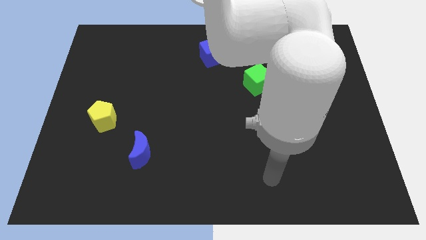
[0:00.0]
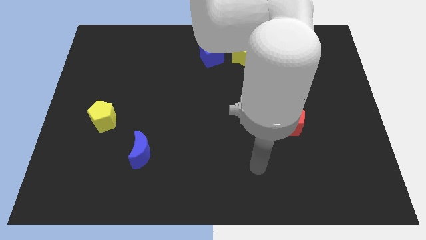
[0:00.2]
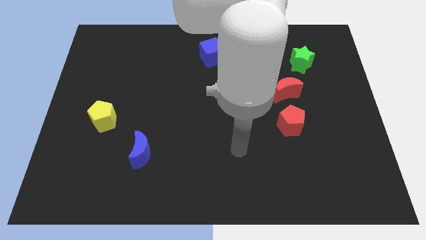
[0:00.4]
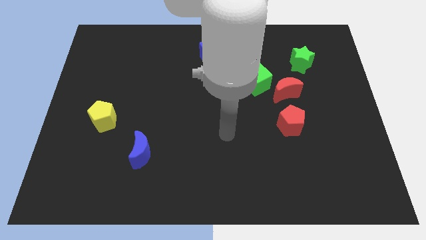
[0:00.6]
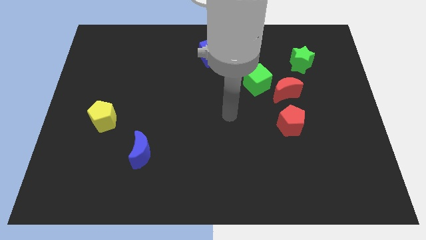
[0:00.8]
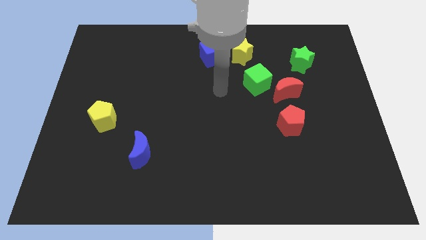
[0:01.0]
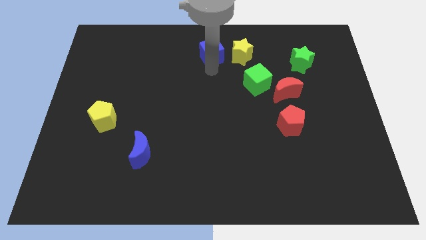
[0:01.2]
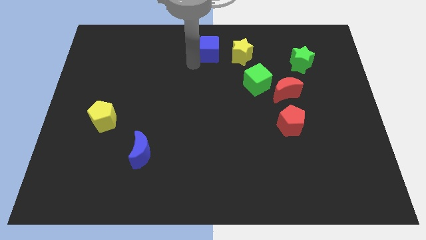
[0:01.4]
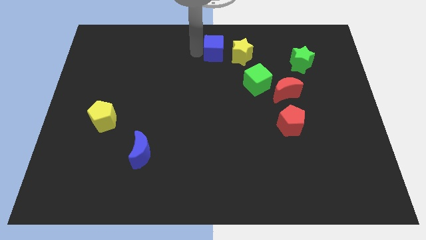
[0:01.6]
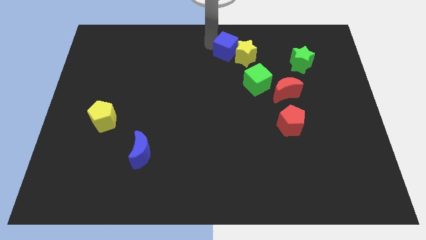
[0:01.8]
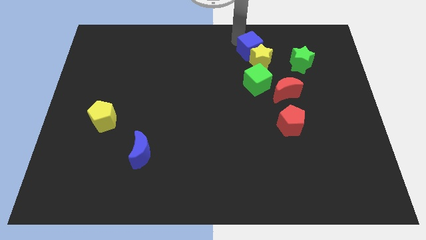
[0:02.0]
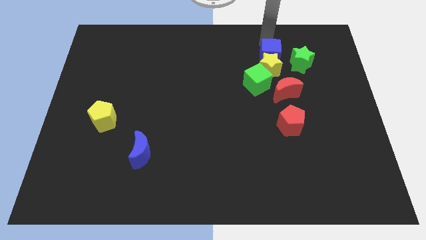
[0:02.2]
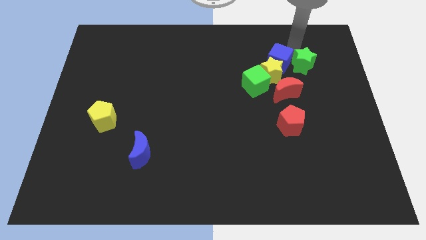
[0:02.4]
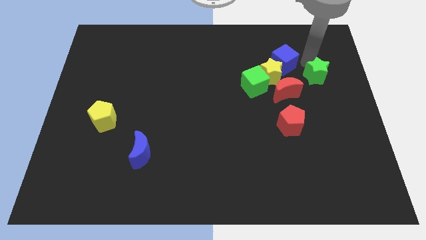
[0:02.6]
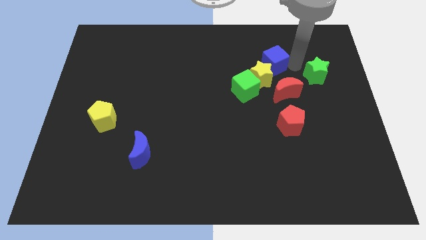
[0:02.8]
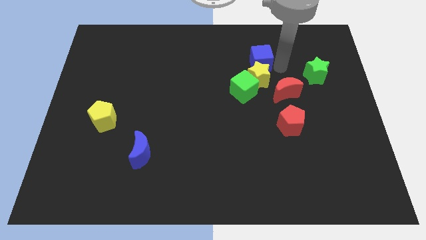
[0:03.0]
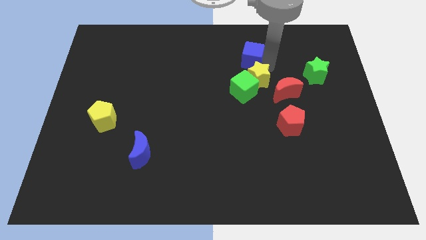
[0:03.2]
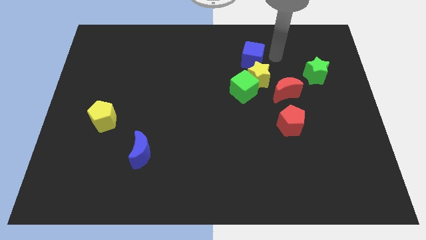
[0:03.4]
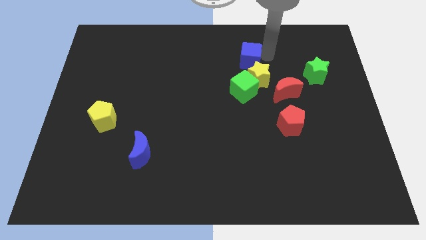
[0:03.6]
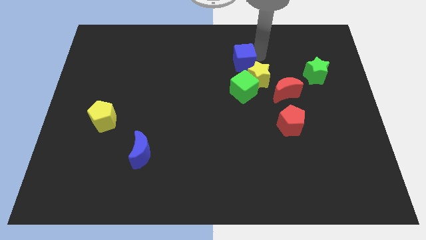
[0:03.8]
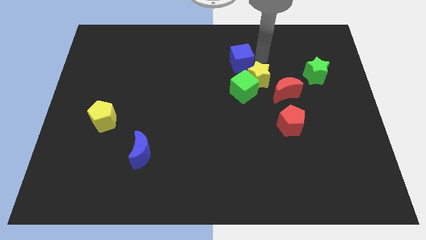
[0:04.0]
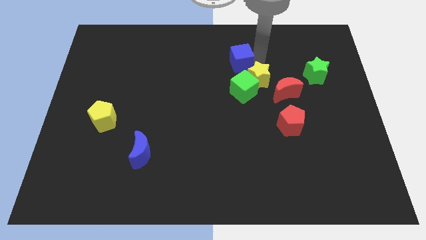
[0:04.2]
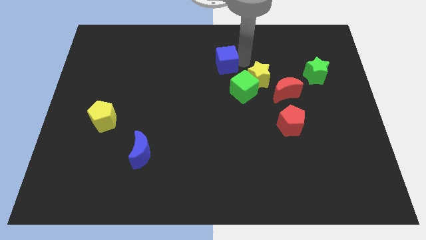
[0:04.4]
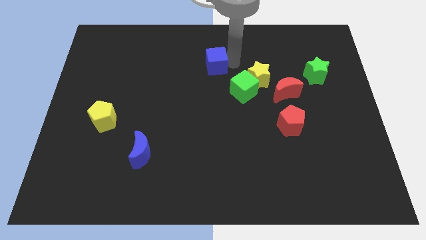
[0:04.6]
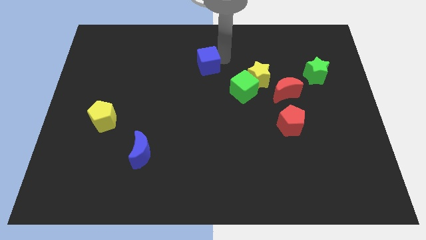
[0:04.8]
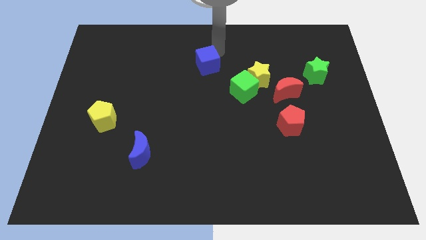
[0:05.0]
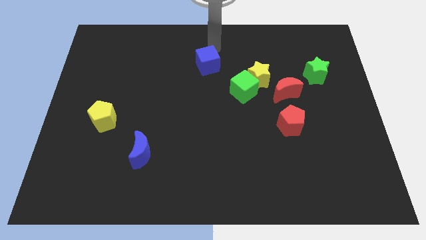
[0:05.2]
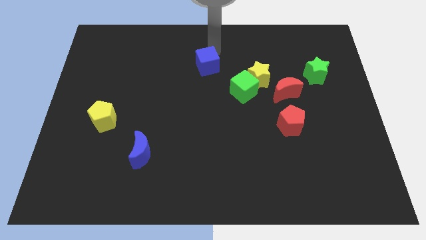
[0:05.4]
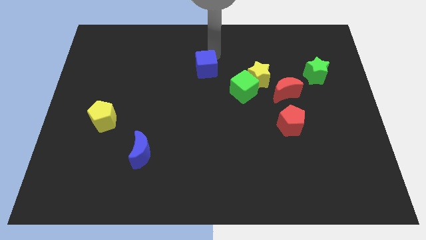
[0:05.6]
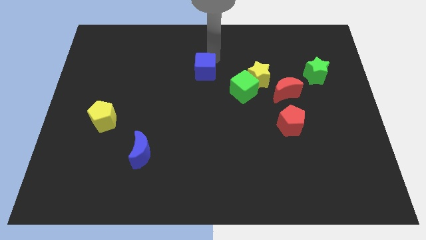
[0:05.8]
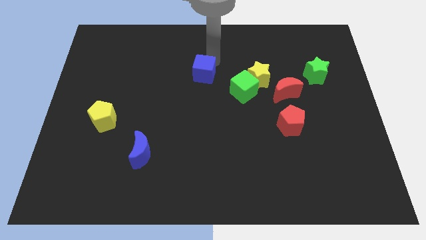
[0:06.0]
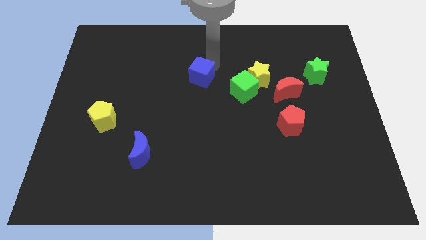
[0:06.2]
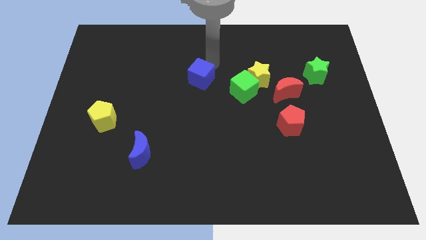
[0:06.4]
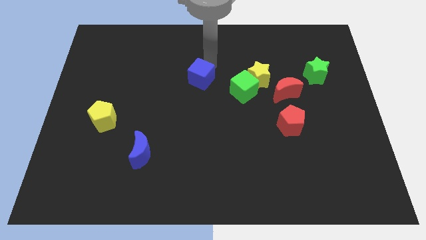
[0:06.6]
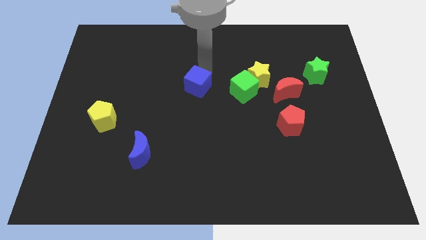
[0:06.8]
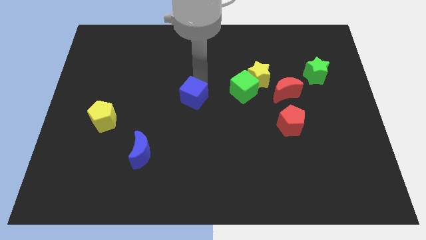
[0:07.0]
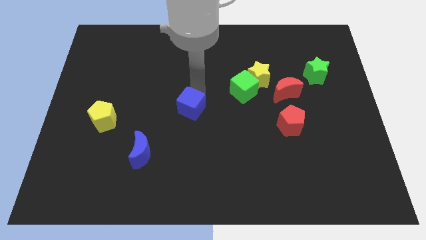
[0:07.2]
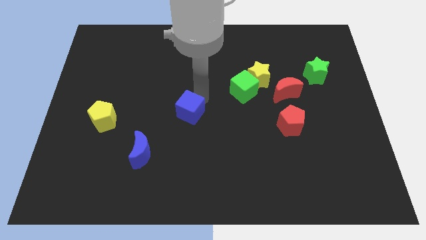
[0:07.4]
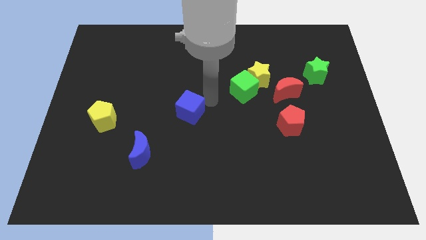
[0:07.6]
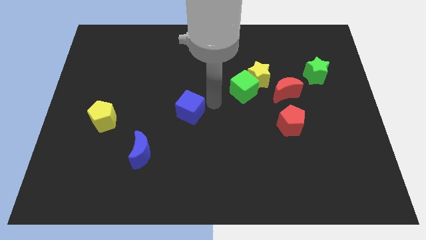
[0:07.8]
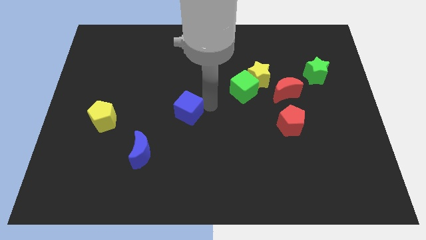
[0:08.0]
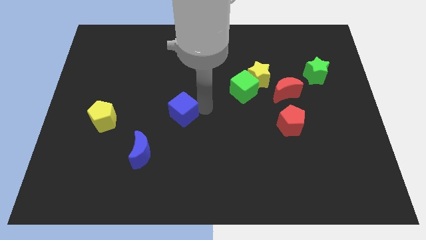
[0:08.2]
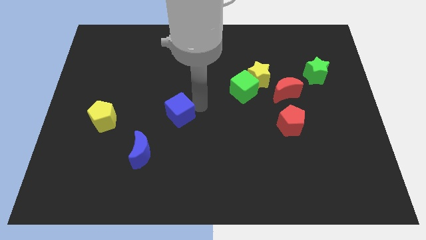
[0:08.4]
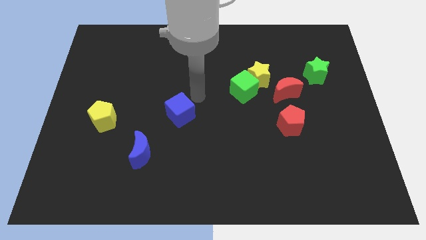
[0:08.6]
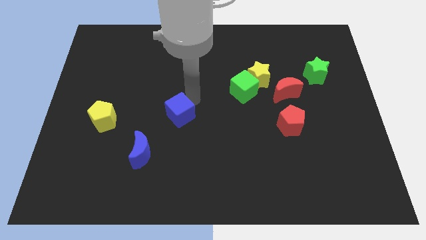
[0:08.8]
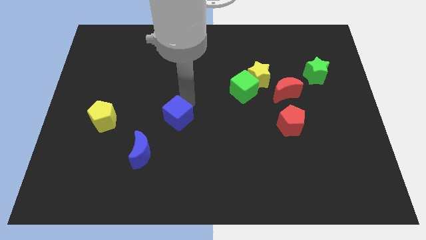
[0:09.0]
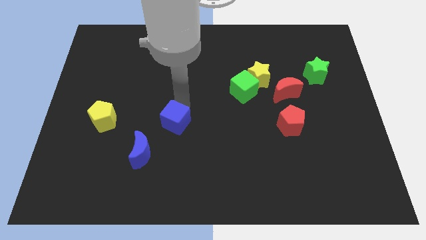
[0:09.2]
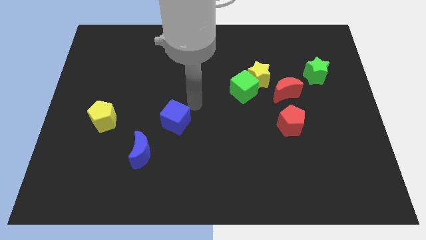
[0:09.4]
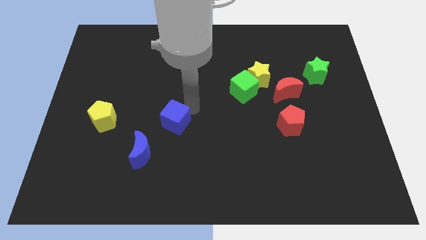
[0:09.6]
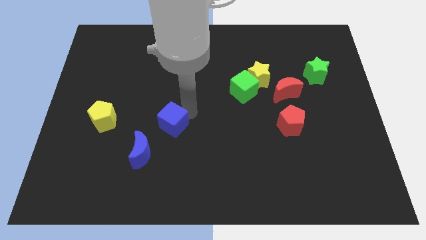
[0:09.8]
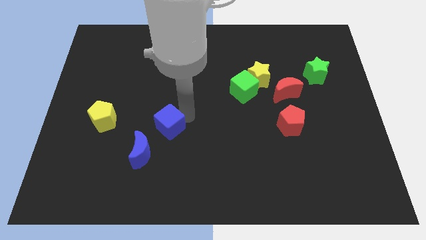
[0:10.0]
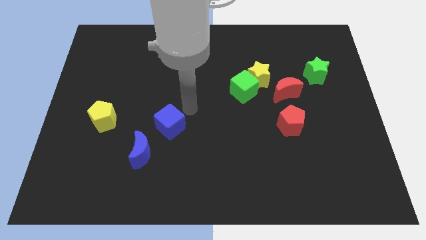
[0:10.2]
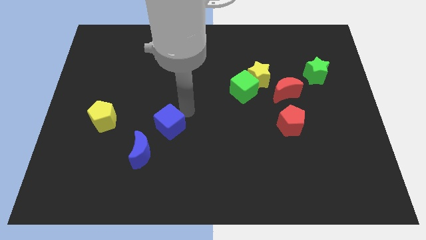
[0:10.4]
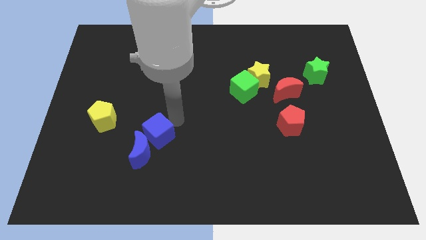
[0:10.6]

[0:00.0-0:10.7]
put the blue cube to the blue moon

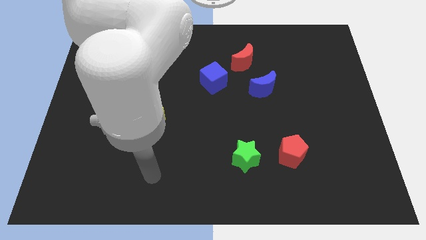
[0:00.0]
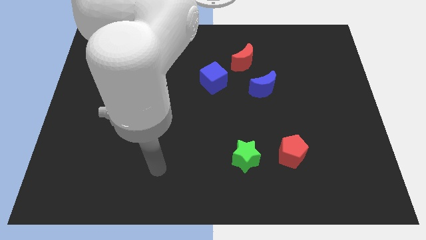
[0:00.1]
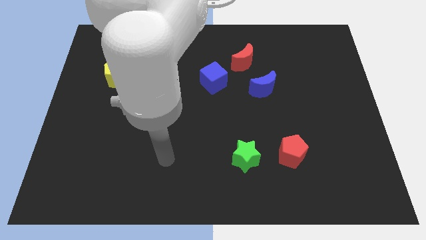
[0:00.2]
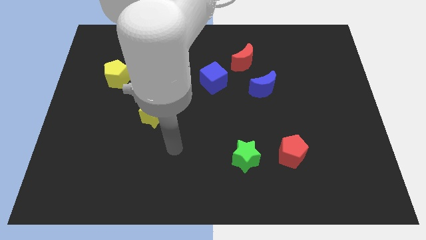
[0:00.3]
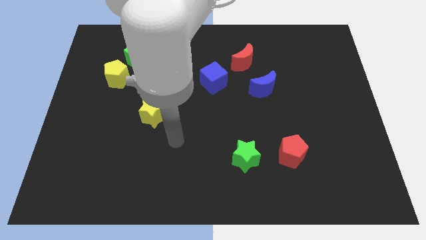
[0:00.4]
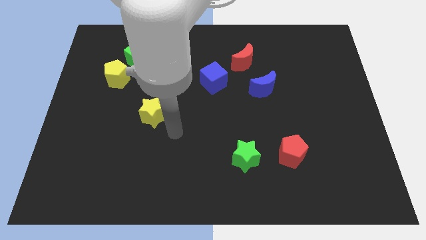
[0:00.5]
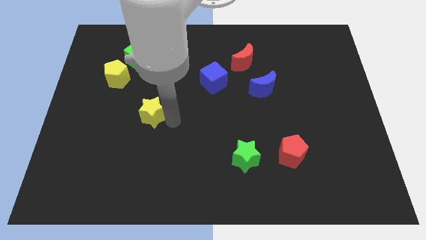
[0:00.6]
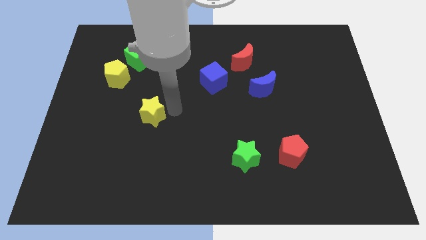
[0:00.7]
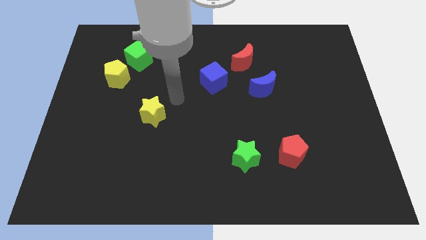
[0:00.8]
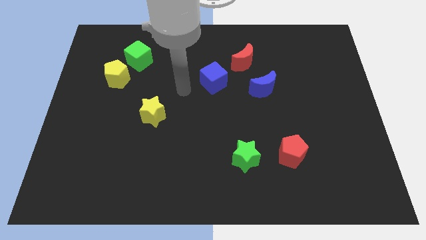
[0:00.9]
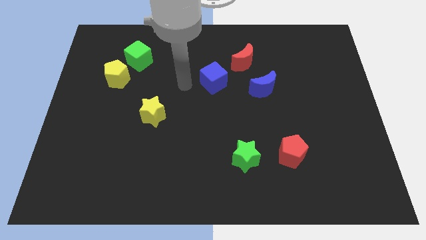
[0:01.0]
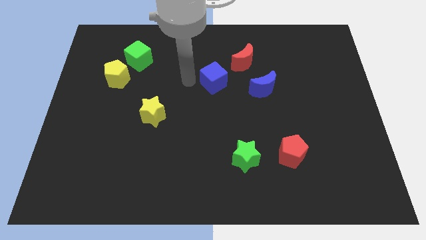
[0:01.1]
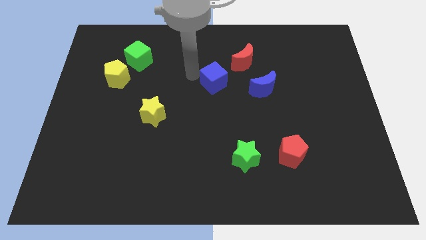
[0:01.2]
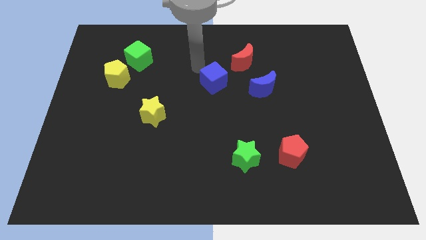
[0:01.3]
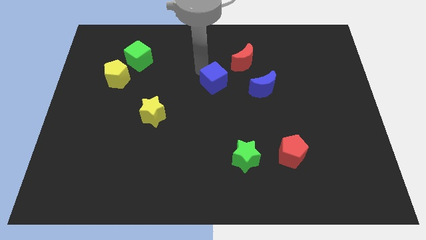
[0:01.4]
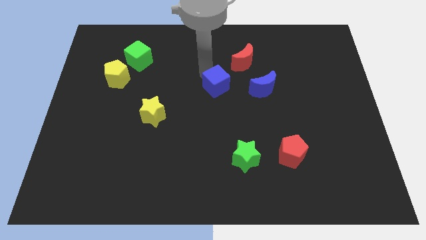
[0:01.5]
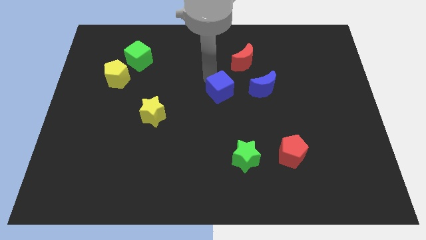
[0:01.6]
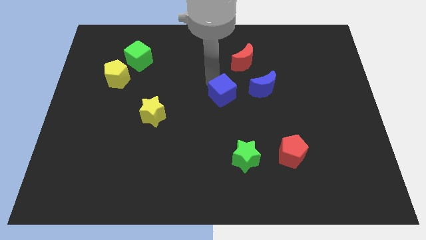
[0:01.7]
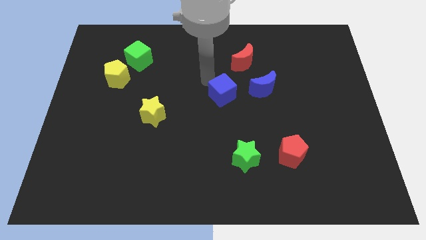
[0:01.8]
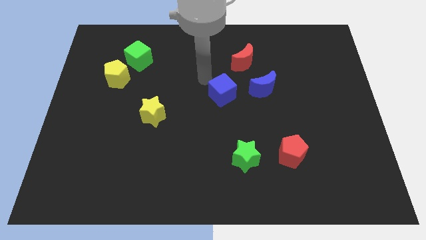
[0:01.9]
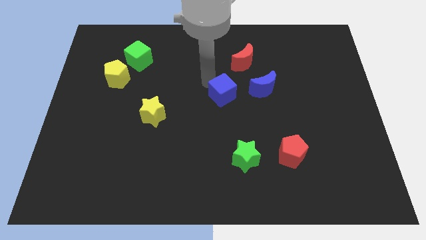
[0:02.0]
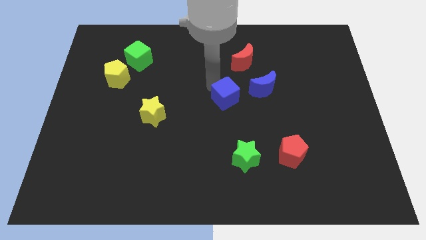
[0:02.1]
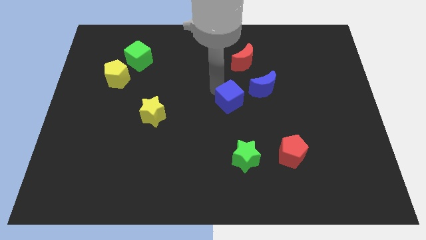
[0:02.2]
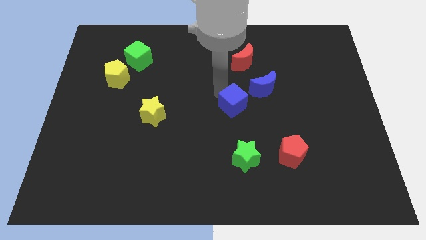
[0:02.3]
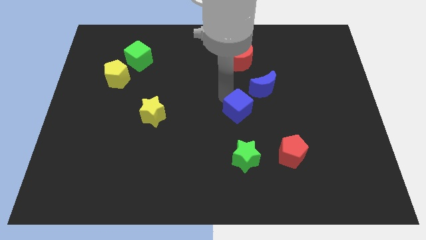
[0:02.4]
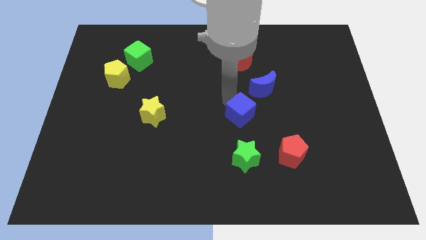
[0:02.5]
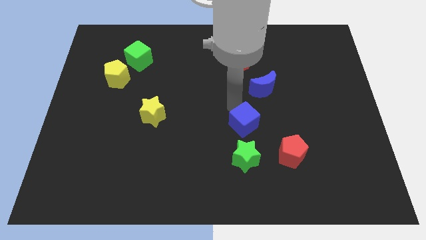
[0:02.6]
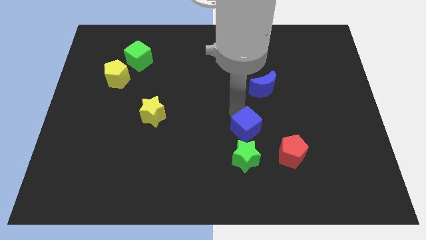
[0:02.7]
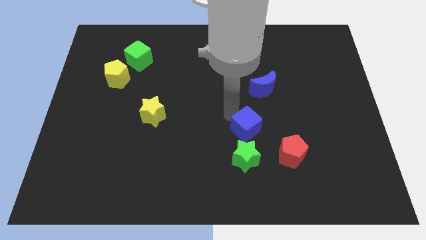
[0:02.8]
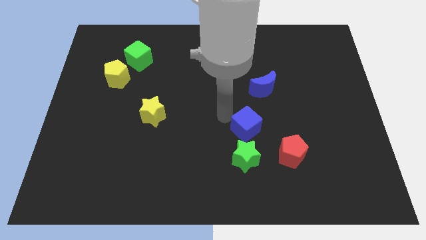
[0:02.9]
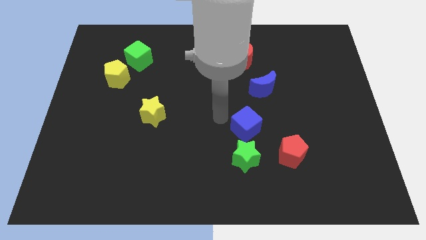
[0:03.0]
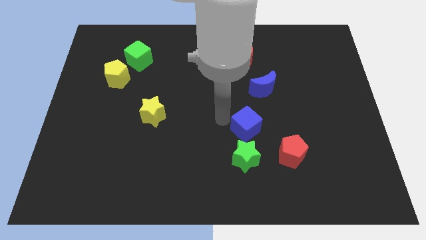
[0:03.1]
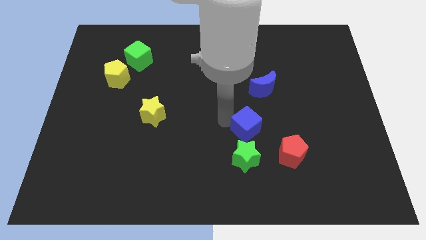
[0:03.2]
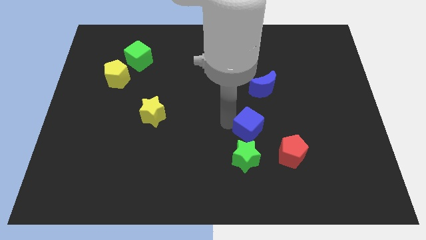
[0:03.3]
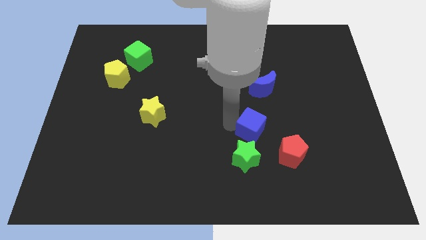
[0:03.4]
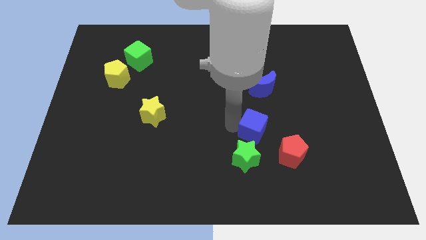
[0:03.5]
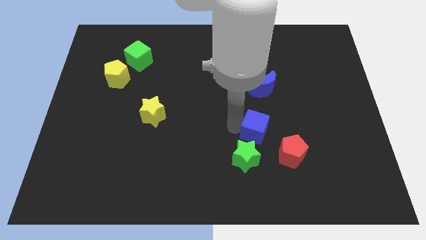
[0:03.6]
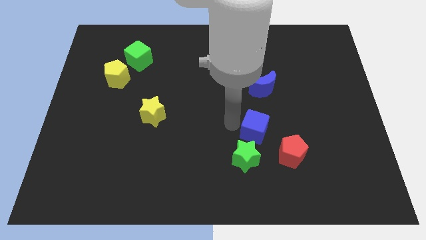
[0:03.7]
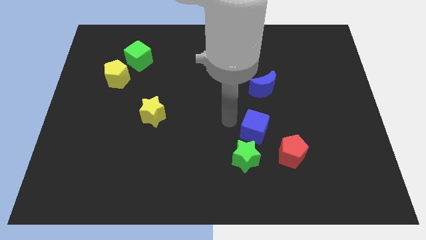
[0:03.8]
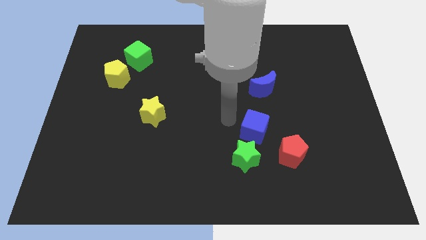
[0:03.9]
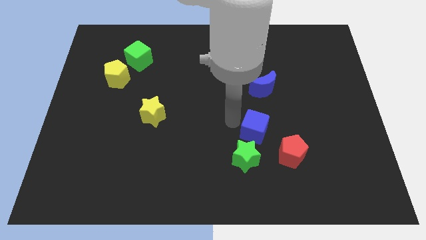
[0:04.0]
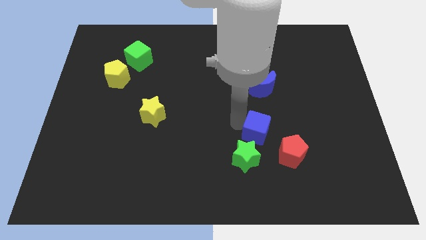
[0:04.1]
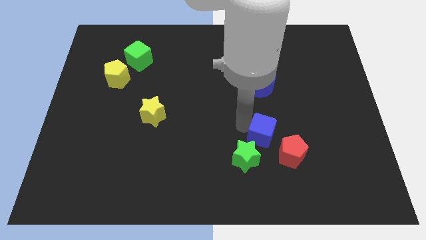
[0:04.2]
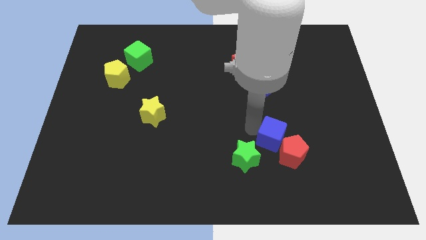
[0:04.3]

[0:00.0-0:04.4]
slide the blue cube towards the red pentagon
